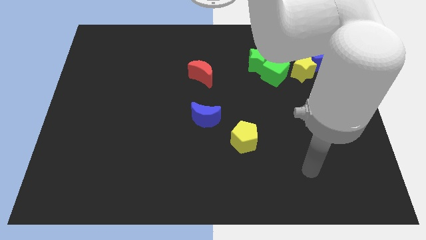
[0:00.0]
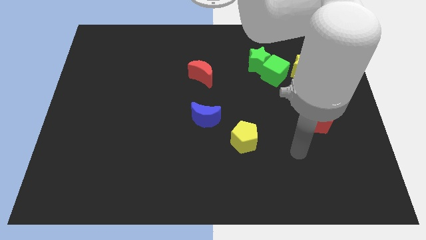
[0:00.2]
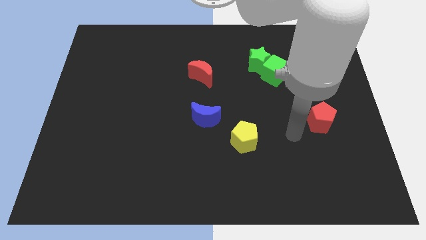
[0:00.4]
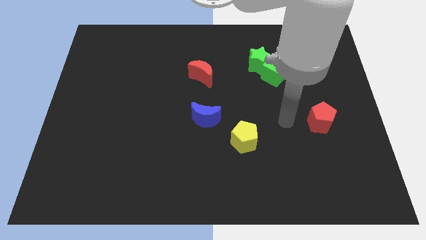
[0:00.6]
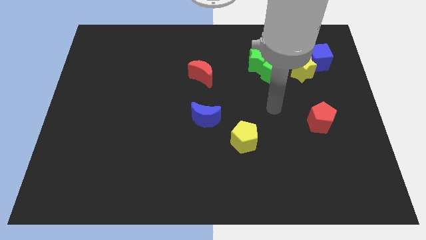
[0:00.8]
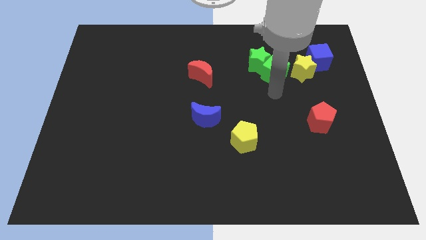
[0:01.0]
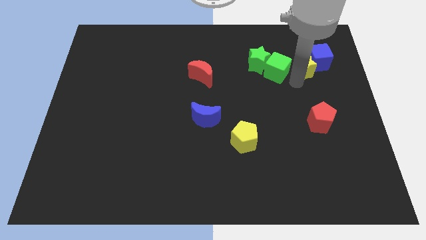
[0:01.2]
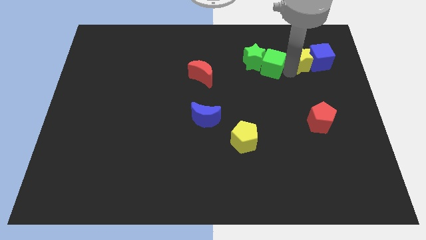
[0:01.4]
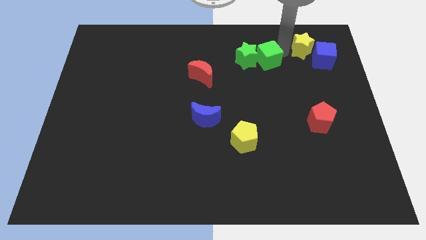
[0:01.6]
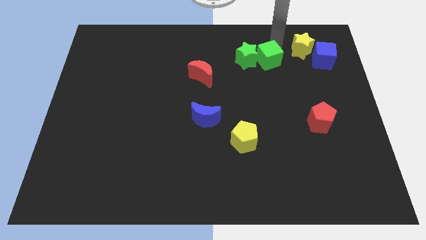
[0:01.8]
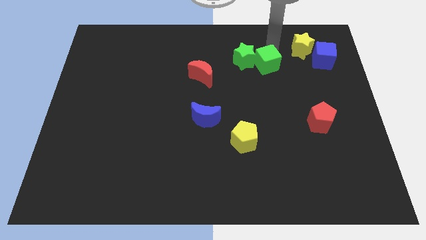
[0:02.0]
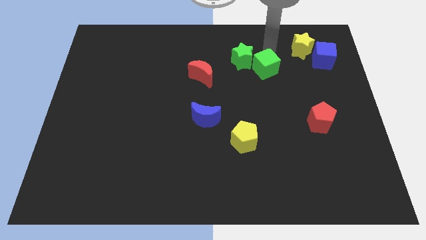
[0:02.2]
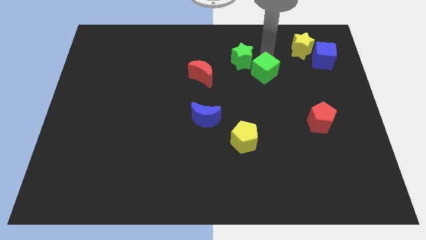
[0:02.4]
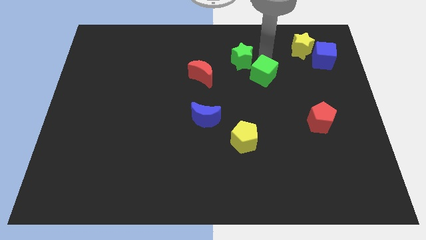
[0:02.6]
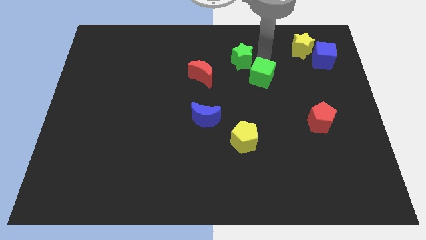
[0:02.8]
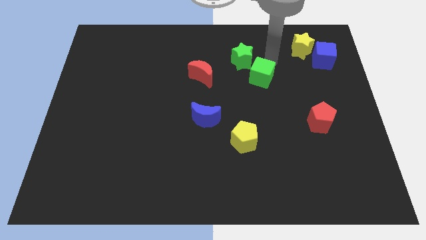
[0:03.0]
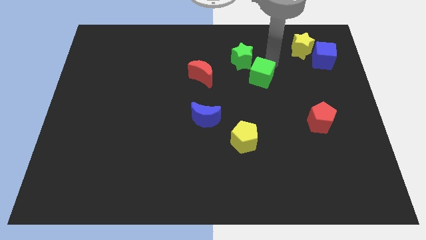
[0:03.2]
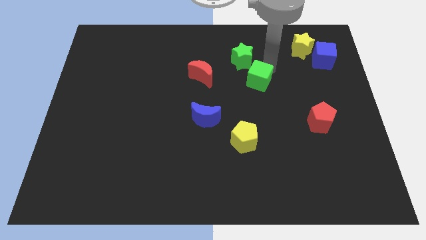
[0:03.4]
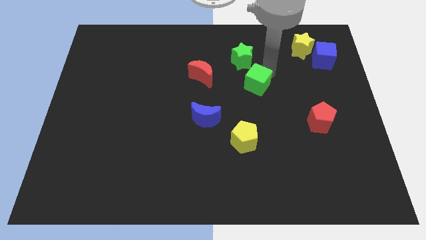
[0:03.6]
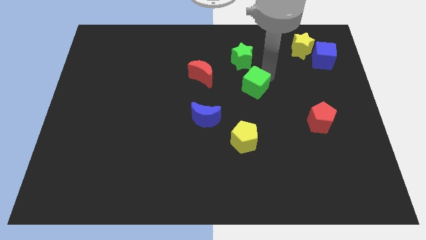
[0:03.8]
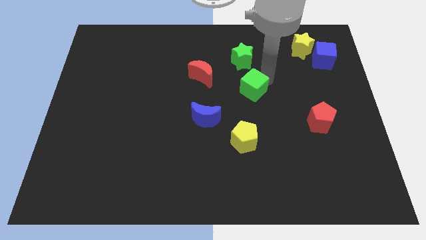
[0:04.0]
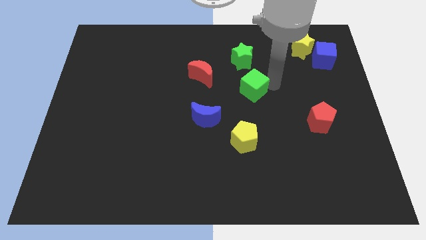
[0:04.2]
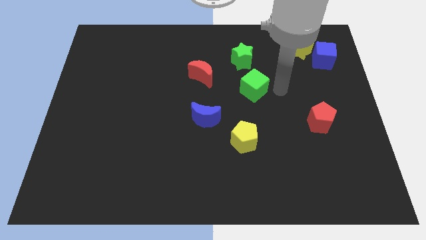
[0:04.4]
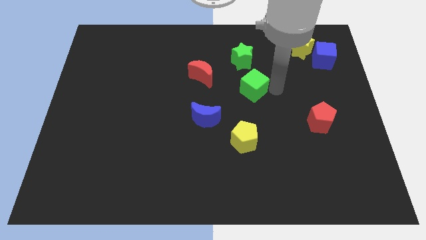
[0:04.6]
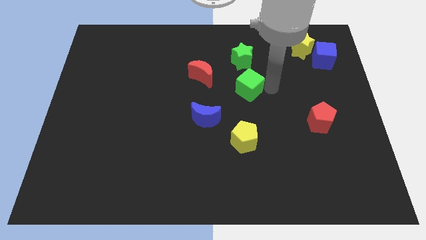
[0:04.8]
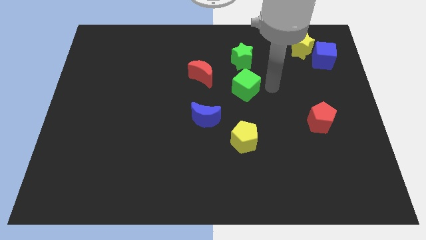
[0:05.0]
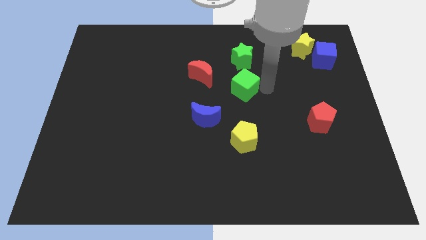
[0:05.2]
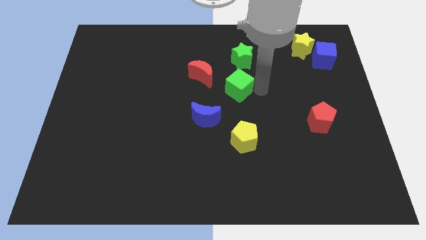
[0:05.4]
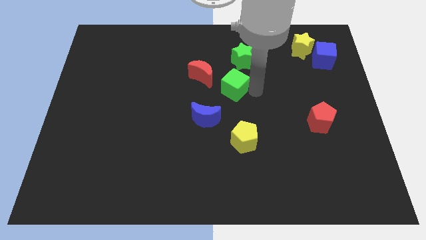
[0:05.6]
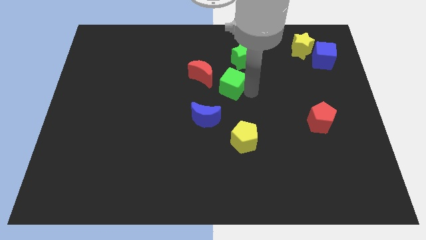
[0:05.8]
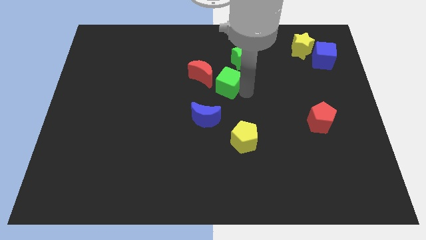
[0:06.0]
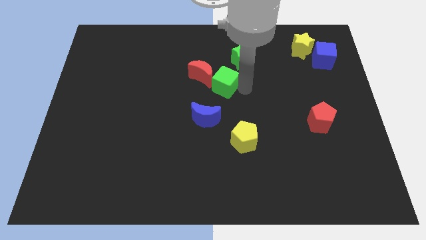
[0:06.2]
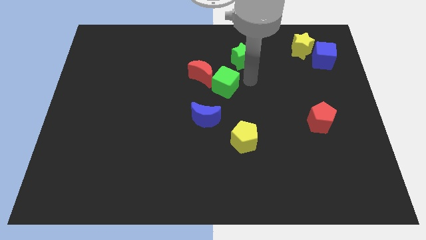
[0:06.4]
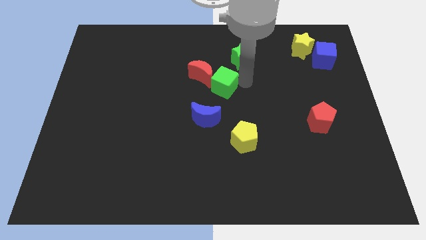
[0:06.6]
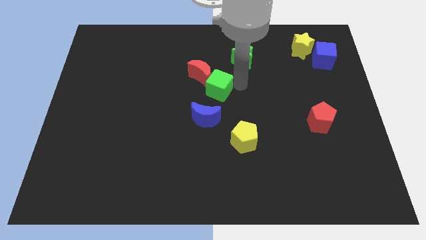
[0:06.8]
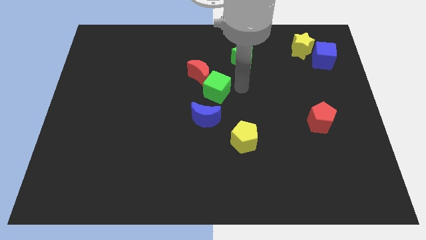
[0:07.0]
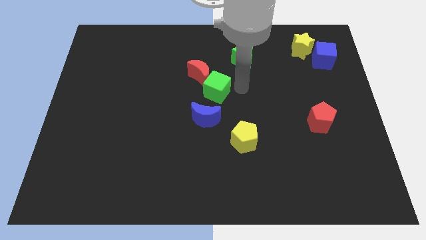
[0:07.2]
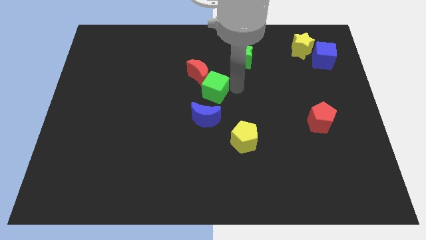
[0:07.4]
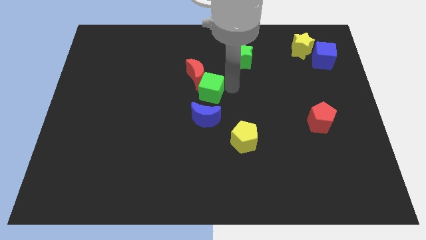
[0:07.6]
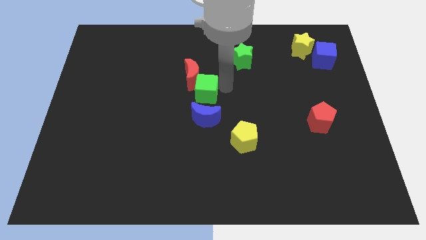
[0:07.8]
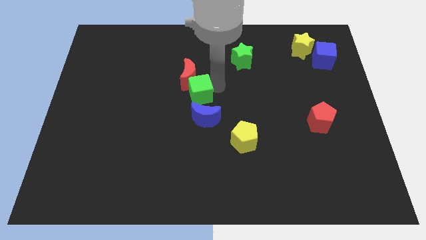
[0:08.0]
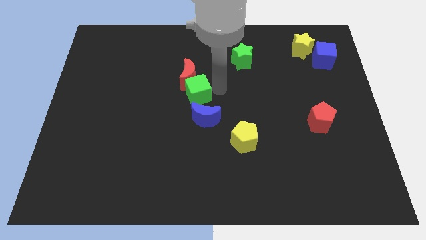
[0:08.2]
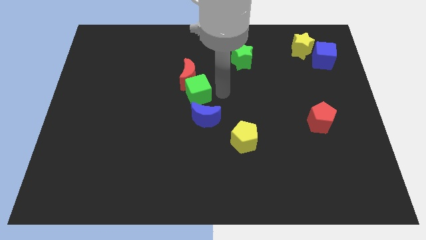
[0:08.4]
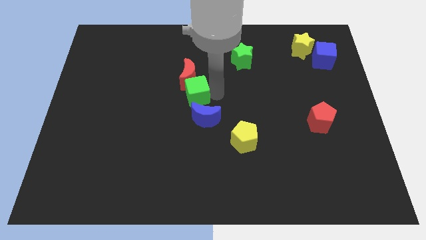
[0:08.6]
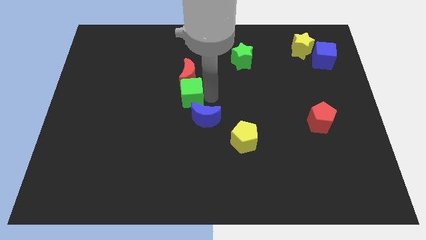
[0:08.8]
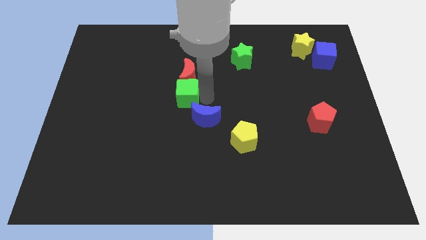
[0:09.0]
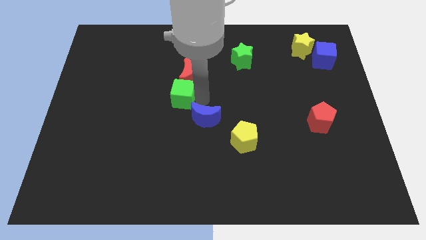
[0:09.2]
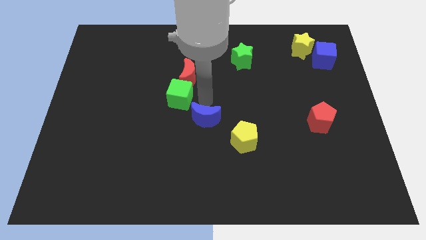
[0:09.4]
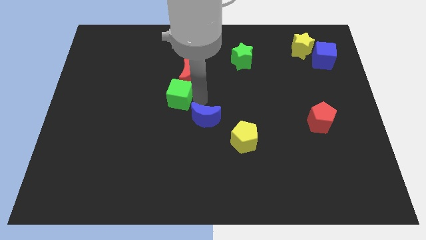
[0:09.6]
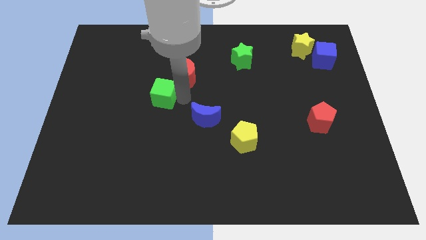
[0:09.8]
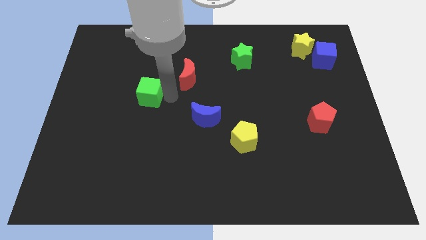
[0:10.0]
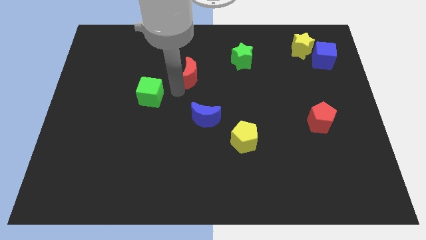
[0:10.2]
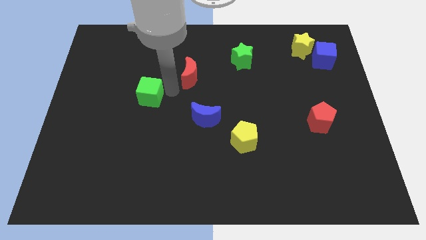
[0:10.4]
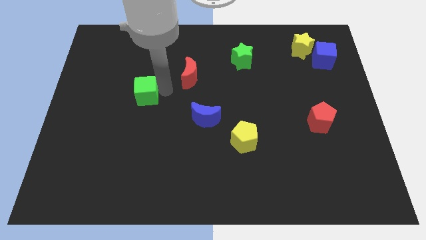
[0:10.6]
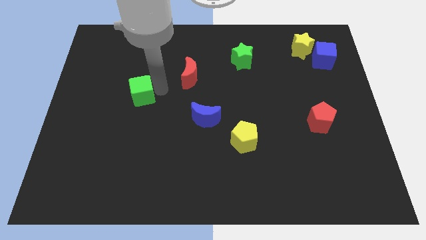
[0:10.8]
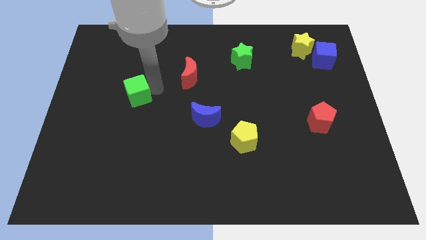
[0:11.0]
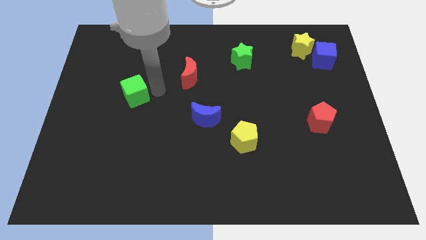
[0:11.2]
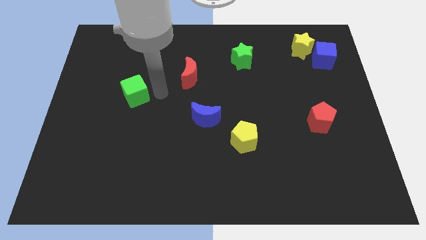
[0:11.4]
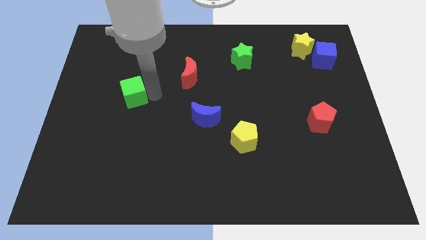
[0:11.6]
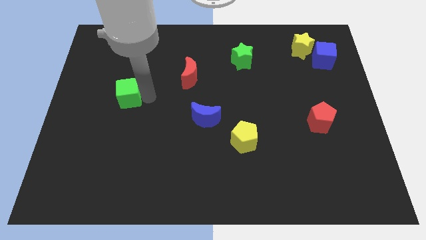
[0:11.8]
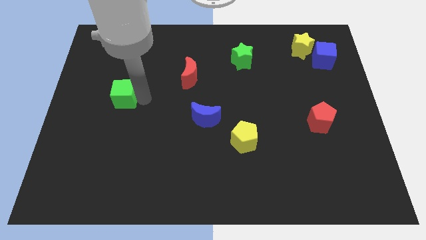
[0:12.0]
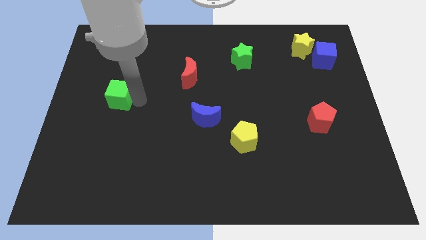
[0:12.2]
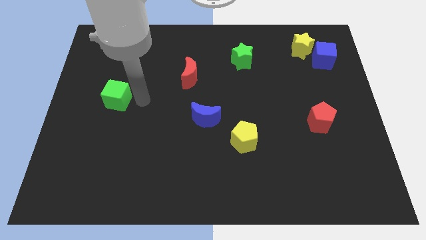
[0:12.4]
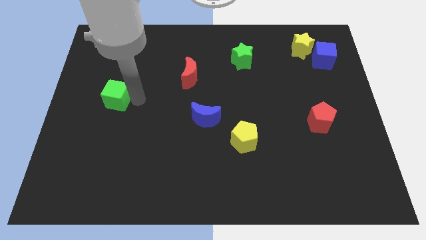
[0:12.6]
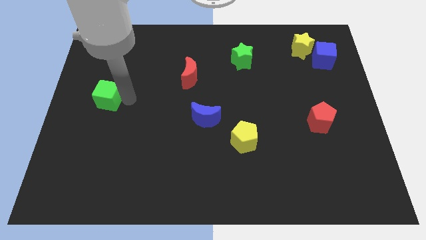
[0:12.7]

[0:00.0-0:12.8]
move the green cube to the center left

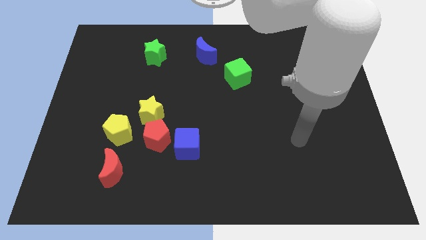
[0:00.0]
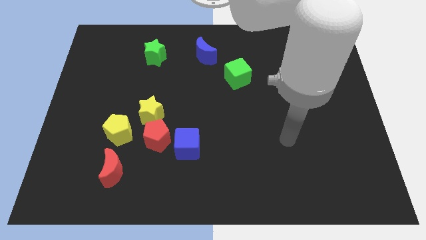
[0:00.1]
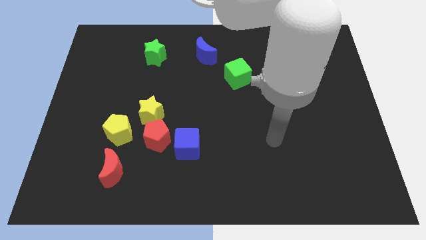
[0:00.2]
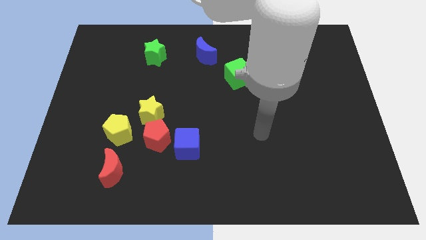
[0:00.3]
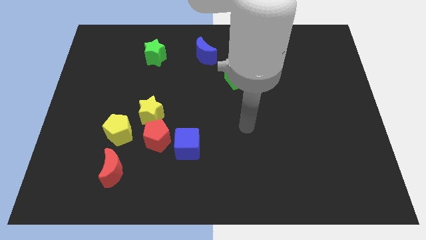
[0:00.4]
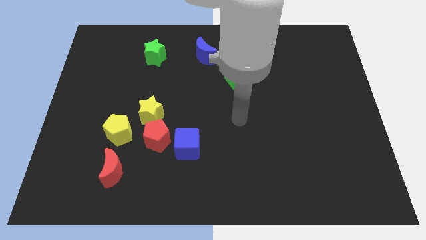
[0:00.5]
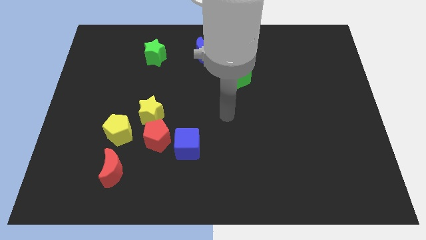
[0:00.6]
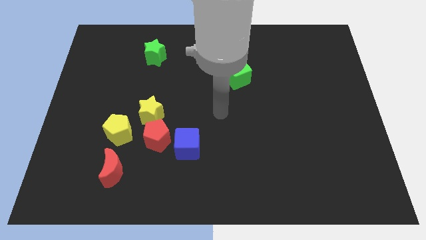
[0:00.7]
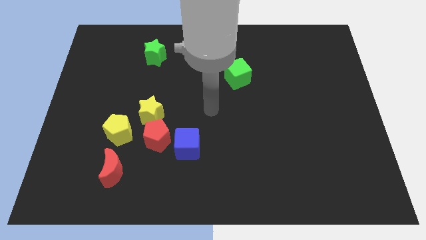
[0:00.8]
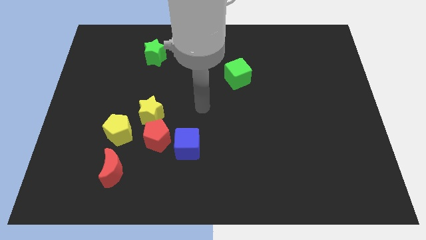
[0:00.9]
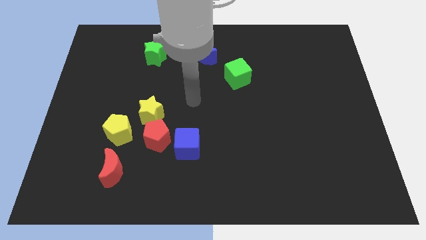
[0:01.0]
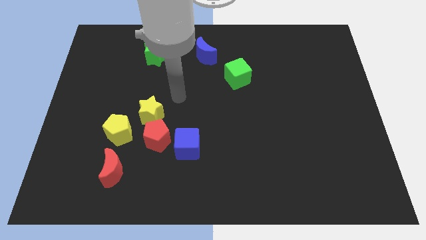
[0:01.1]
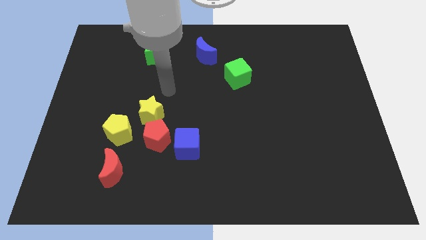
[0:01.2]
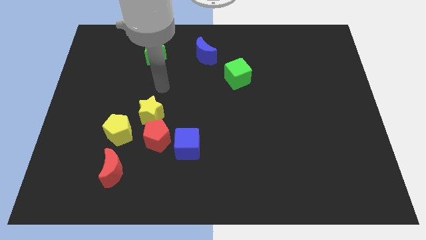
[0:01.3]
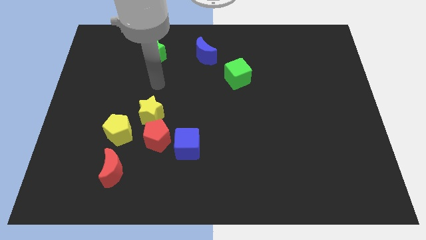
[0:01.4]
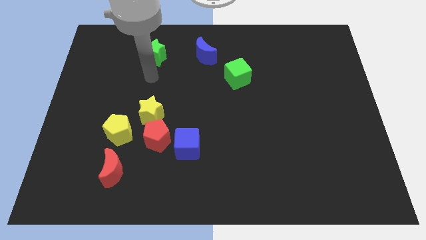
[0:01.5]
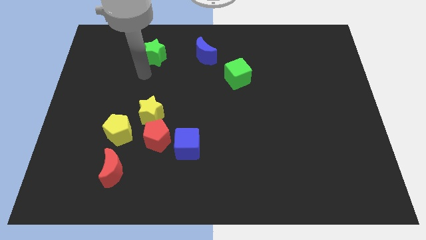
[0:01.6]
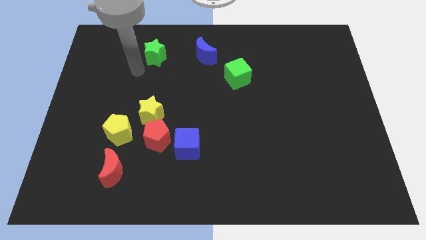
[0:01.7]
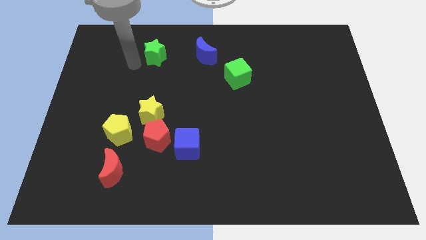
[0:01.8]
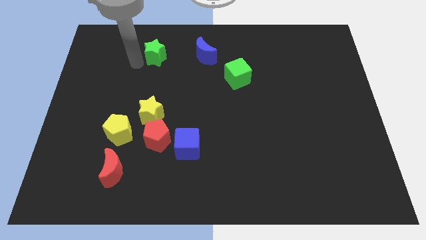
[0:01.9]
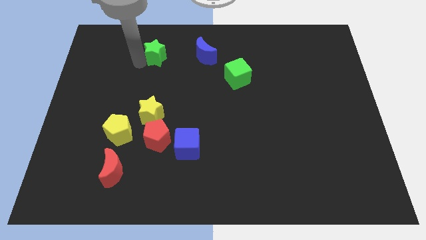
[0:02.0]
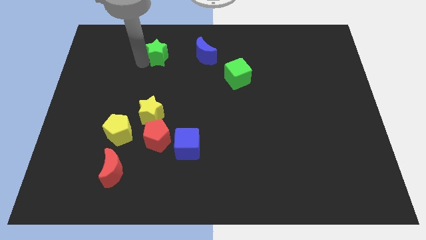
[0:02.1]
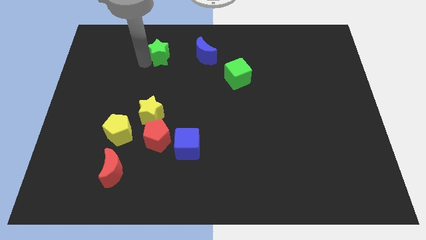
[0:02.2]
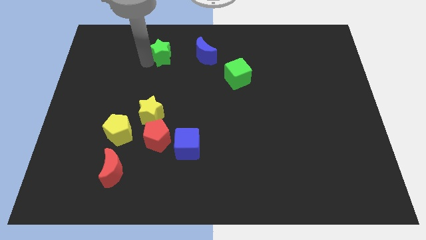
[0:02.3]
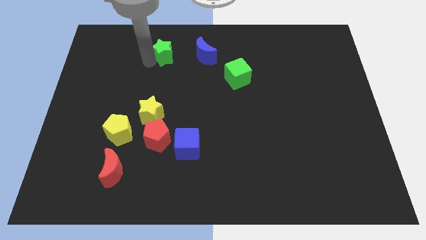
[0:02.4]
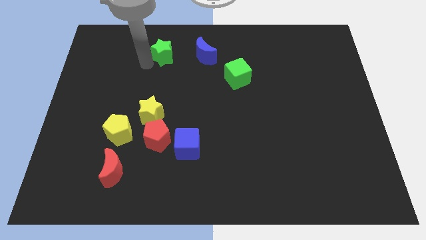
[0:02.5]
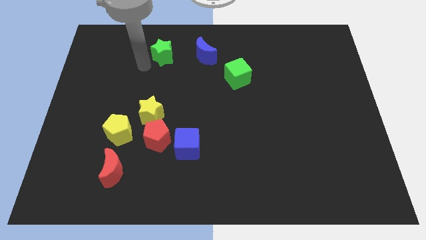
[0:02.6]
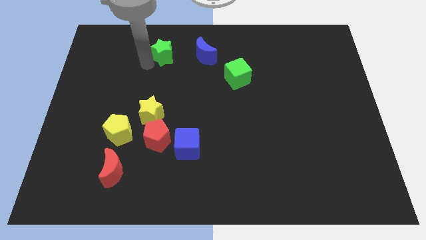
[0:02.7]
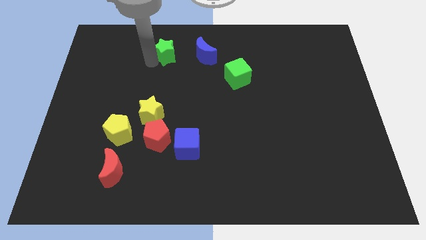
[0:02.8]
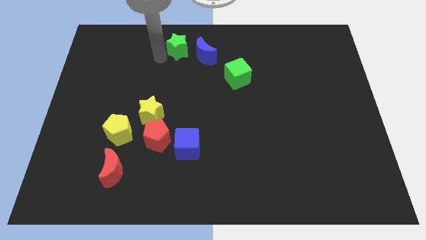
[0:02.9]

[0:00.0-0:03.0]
put the green star to the towards your base
